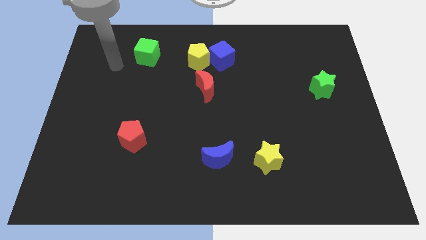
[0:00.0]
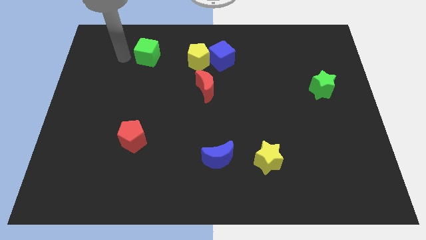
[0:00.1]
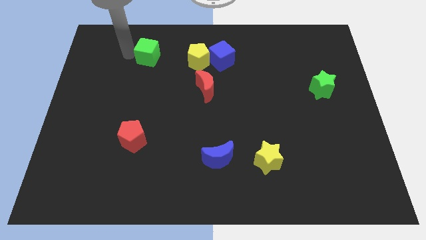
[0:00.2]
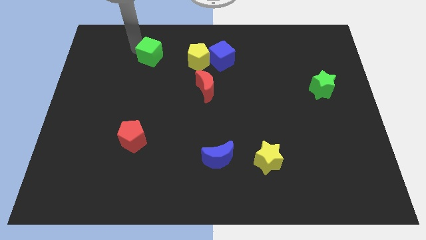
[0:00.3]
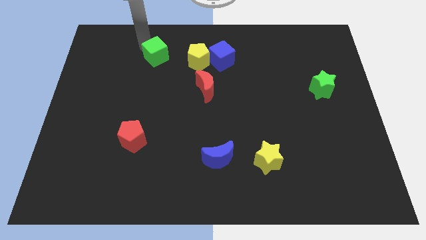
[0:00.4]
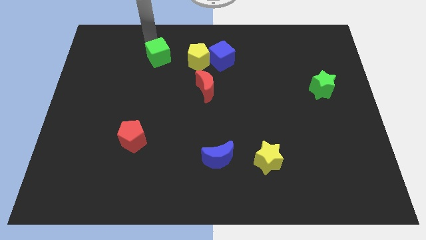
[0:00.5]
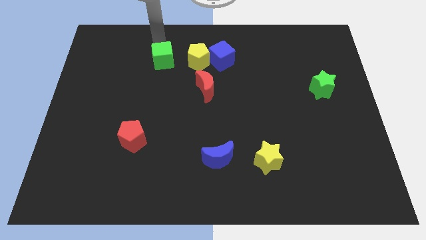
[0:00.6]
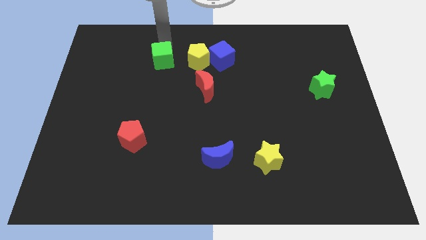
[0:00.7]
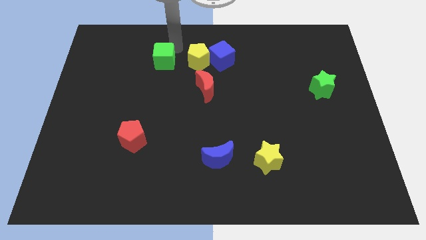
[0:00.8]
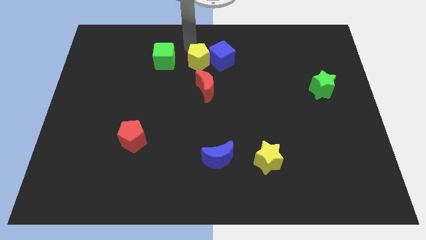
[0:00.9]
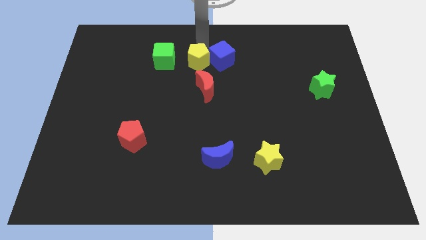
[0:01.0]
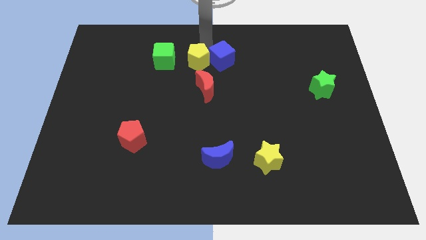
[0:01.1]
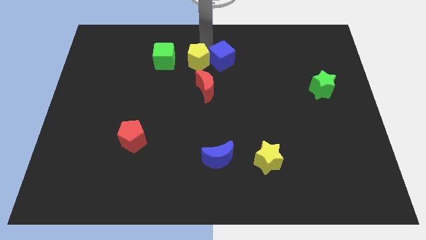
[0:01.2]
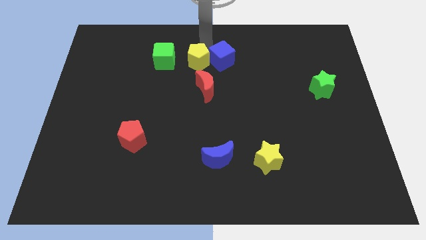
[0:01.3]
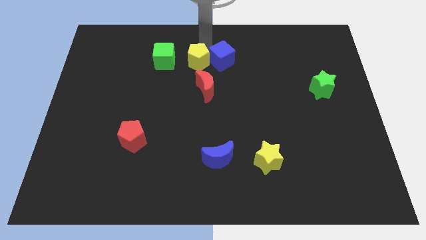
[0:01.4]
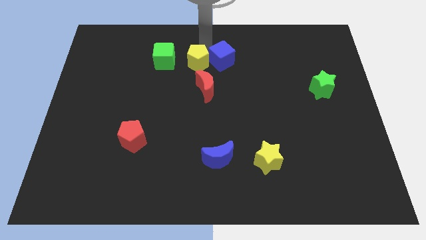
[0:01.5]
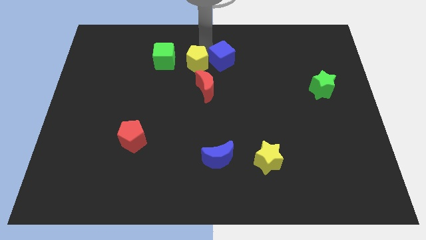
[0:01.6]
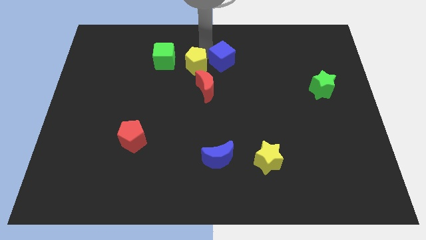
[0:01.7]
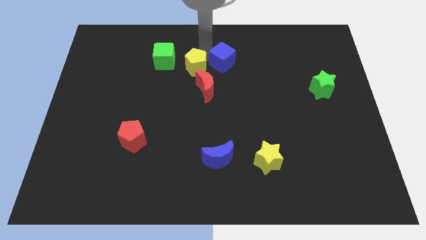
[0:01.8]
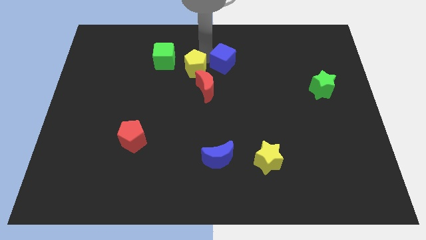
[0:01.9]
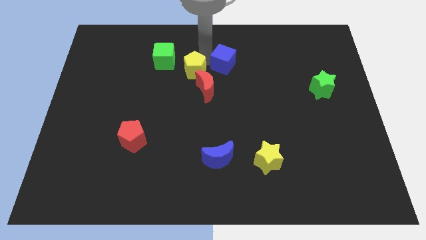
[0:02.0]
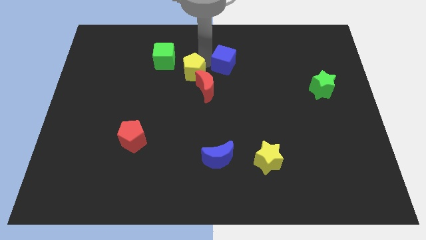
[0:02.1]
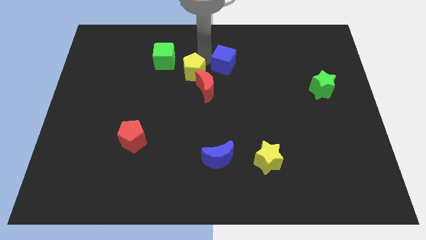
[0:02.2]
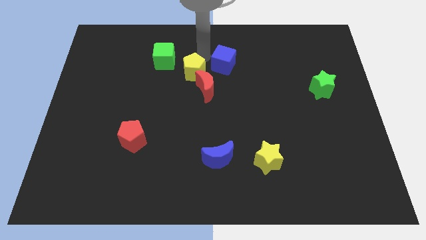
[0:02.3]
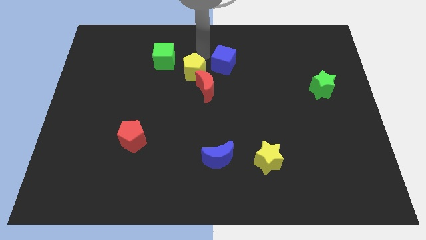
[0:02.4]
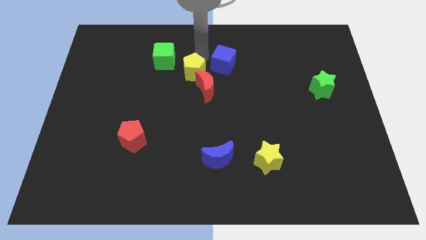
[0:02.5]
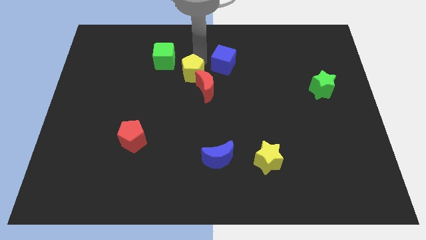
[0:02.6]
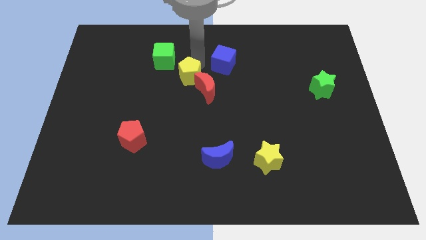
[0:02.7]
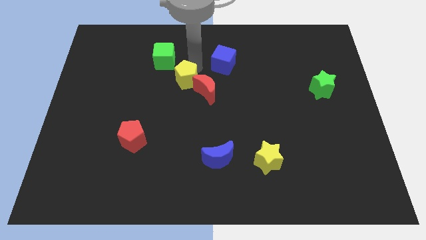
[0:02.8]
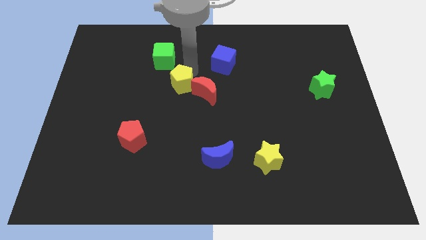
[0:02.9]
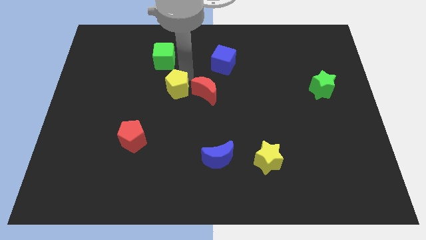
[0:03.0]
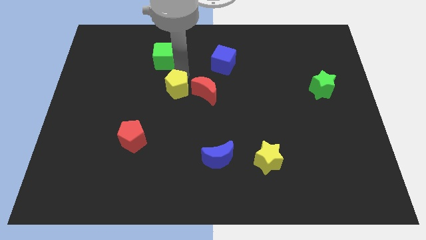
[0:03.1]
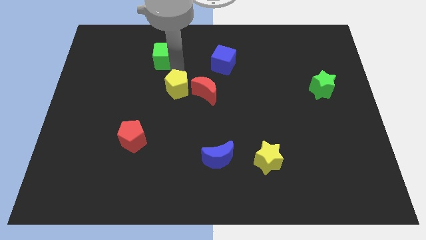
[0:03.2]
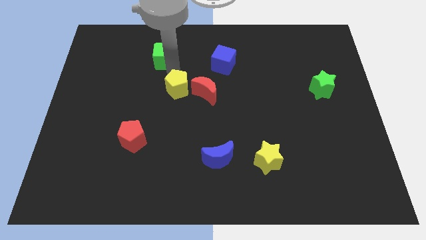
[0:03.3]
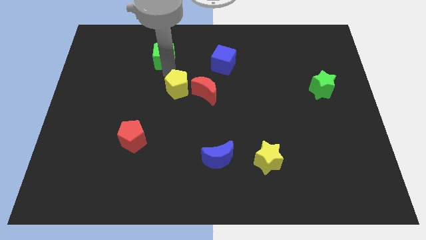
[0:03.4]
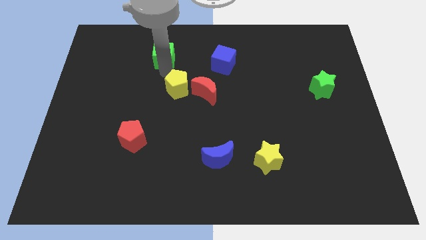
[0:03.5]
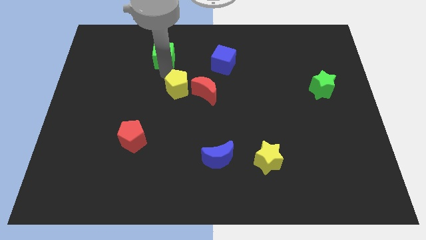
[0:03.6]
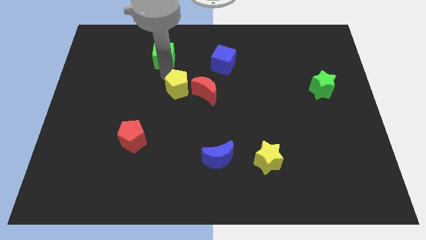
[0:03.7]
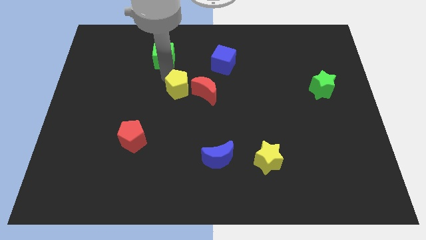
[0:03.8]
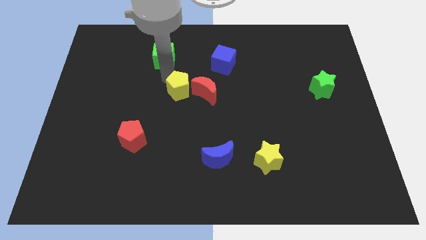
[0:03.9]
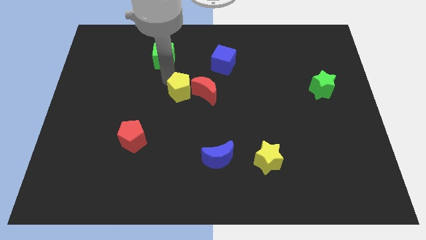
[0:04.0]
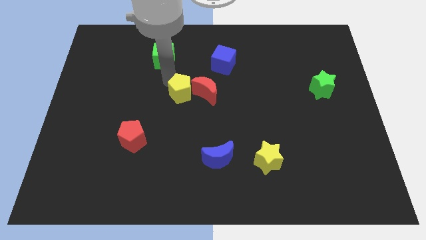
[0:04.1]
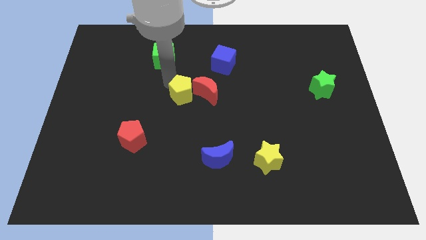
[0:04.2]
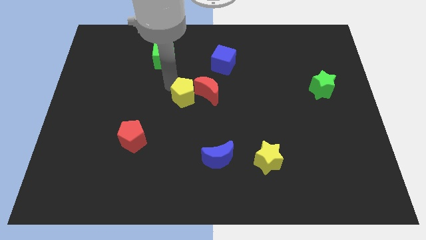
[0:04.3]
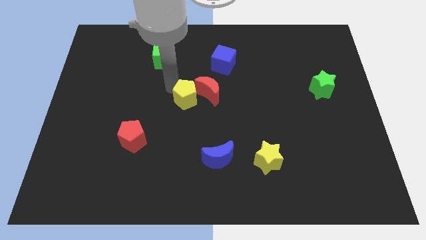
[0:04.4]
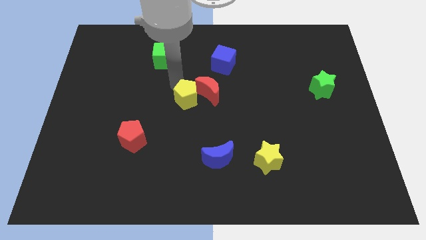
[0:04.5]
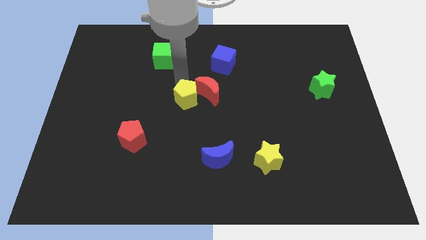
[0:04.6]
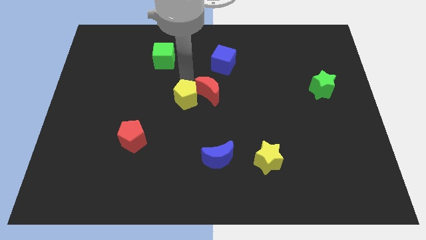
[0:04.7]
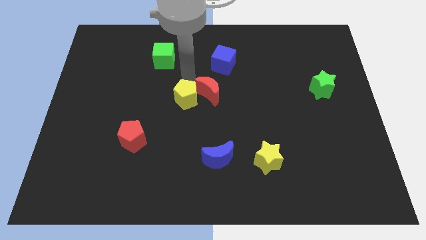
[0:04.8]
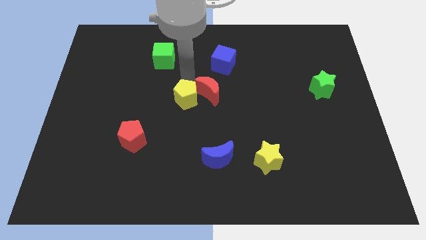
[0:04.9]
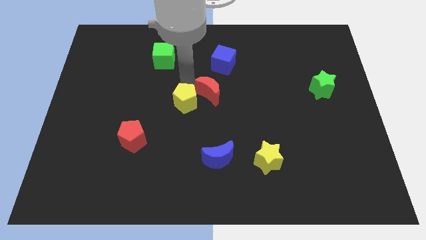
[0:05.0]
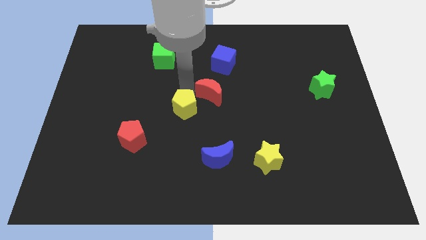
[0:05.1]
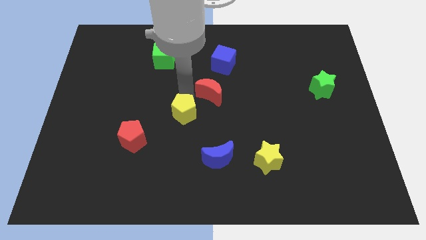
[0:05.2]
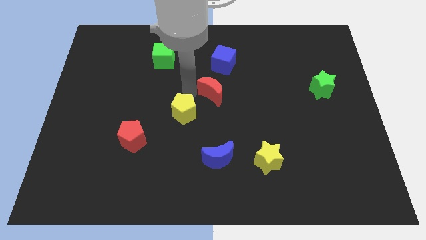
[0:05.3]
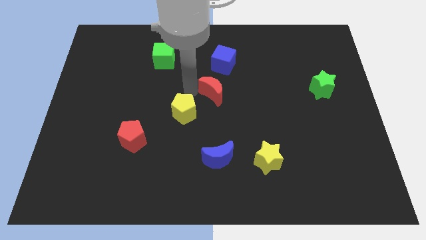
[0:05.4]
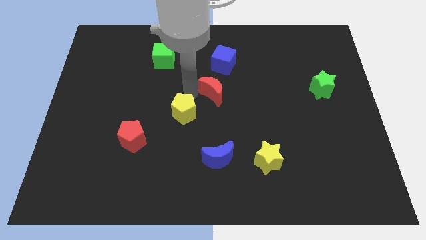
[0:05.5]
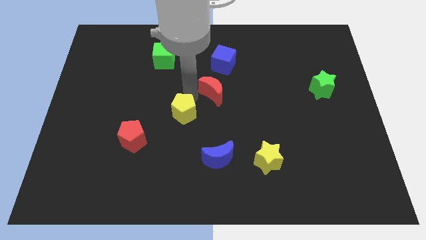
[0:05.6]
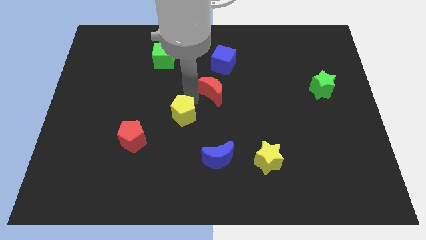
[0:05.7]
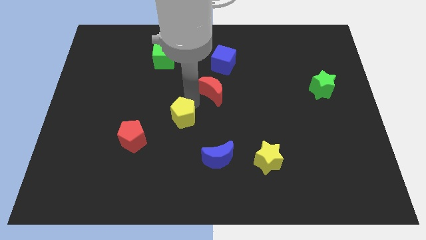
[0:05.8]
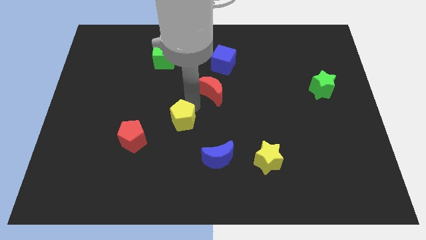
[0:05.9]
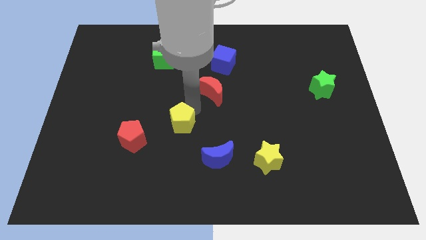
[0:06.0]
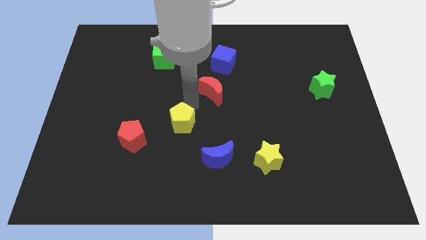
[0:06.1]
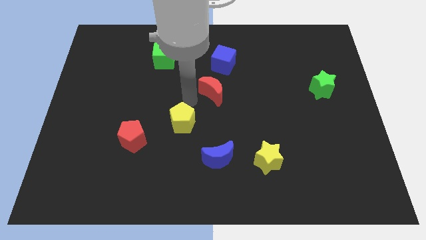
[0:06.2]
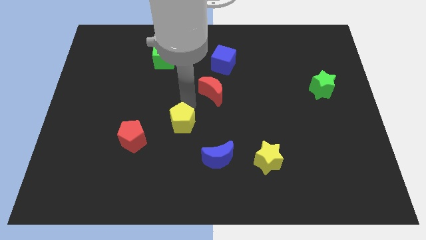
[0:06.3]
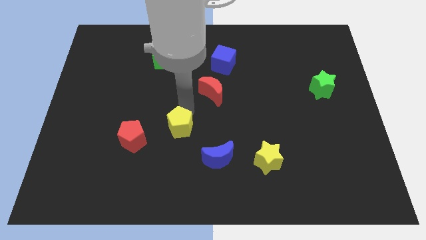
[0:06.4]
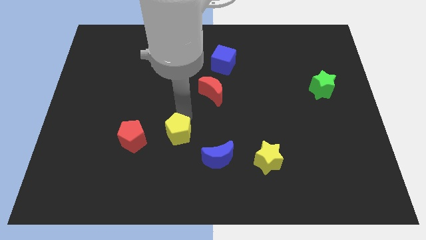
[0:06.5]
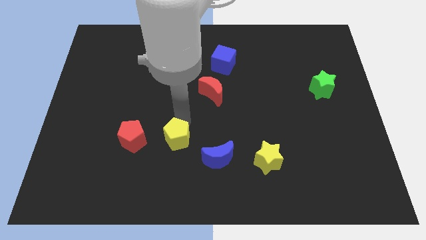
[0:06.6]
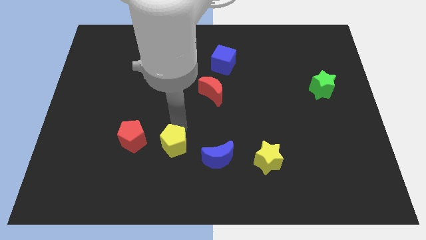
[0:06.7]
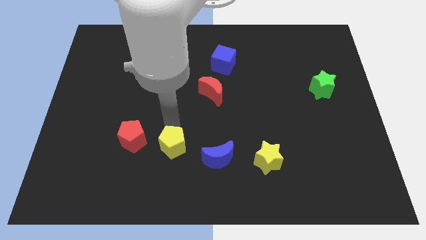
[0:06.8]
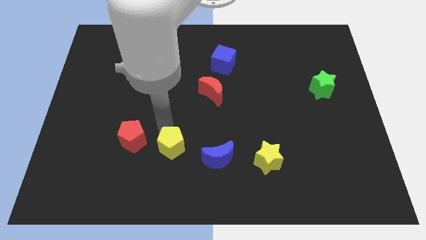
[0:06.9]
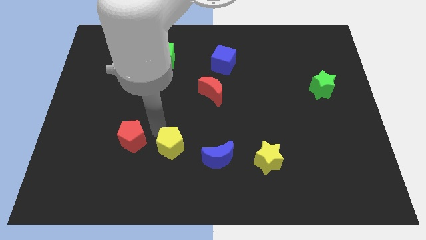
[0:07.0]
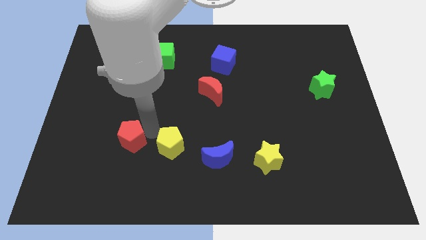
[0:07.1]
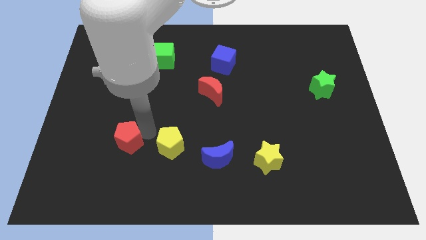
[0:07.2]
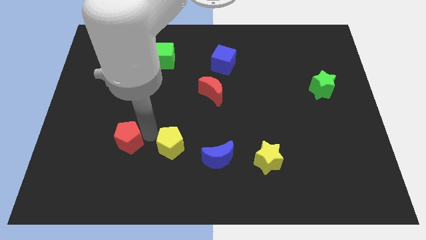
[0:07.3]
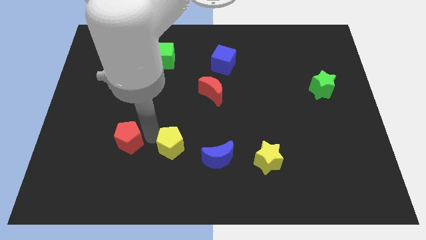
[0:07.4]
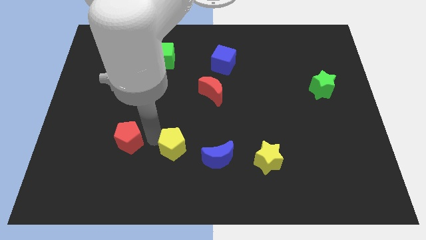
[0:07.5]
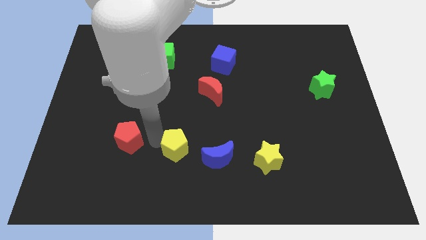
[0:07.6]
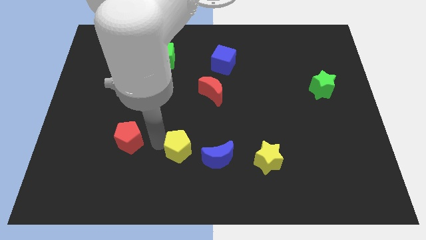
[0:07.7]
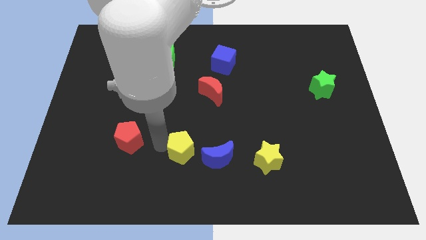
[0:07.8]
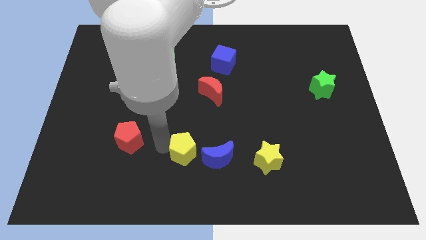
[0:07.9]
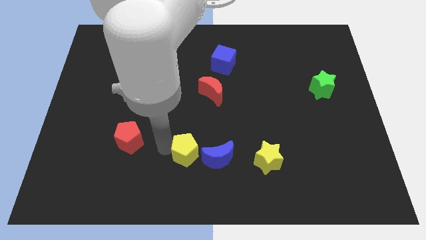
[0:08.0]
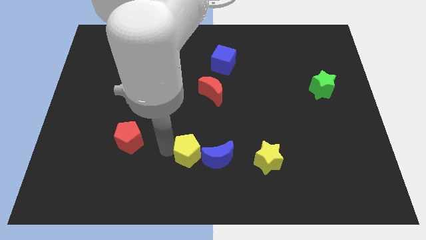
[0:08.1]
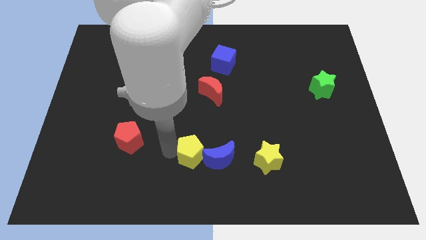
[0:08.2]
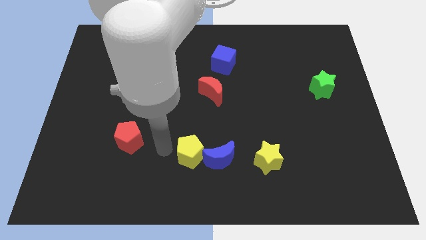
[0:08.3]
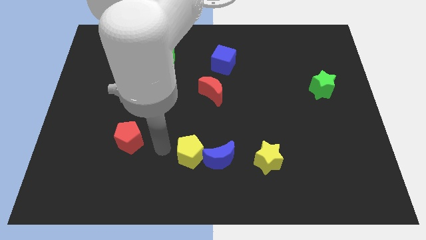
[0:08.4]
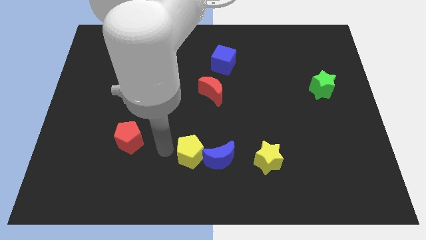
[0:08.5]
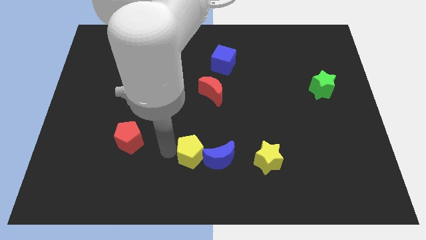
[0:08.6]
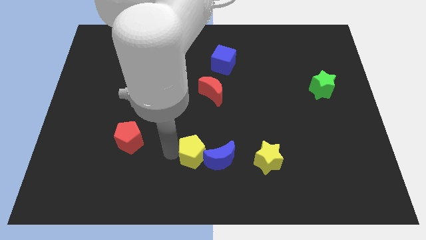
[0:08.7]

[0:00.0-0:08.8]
slide the yellow pentagon just left of the yellow star
